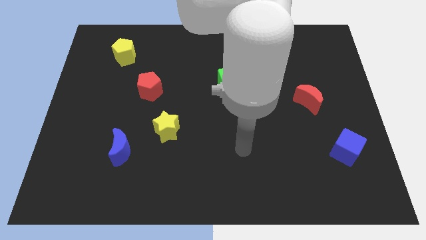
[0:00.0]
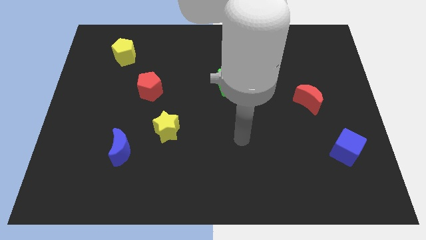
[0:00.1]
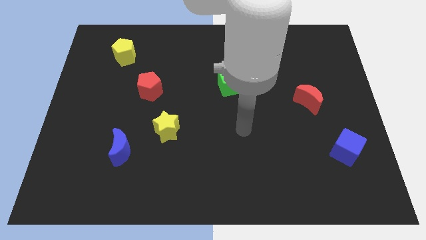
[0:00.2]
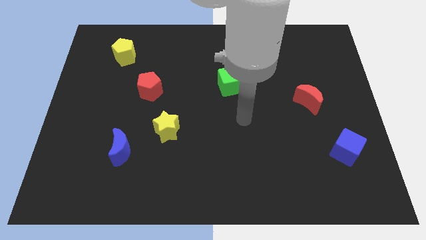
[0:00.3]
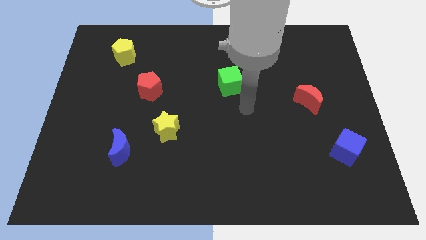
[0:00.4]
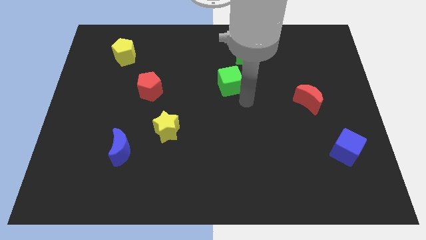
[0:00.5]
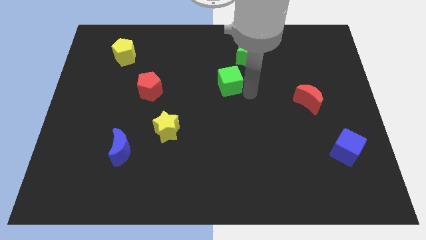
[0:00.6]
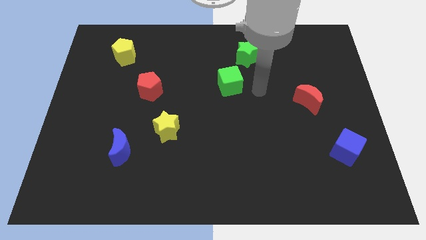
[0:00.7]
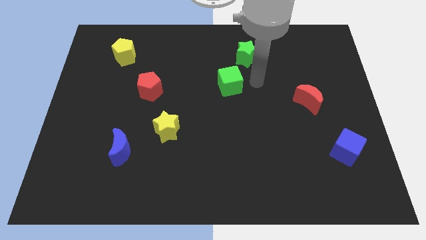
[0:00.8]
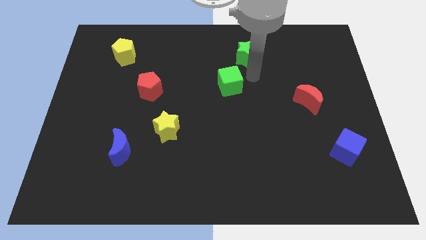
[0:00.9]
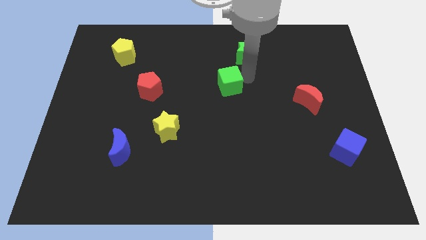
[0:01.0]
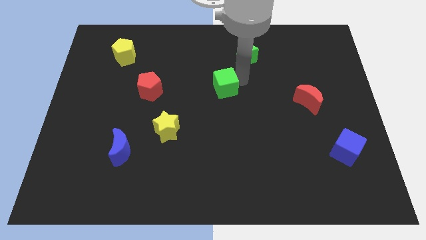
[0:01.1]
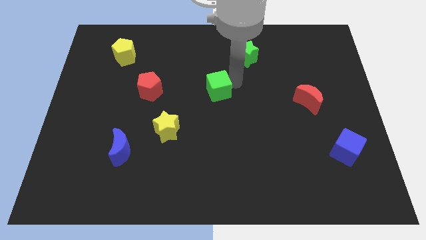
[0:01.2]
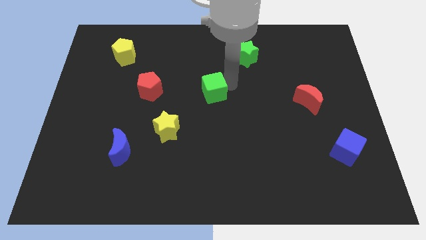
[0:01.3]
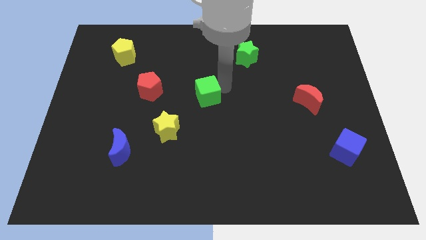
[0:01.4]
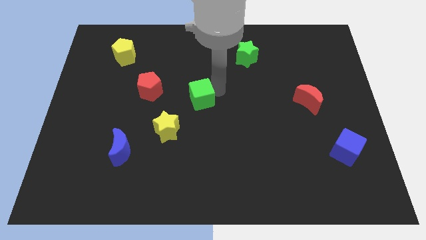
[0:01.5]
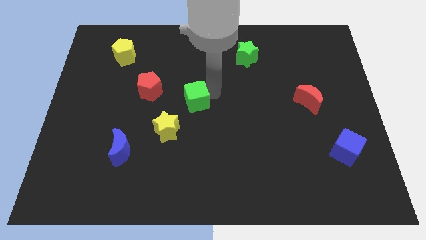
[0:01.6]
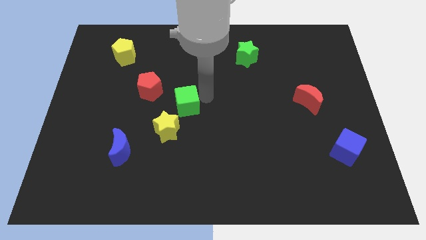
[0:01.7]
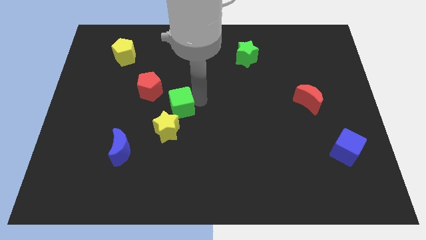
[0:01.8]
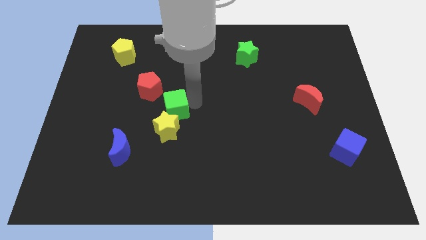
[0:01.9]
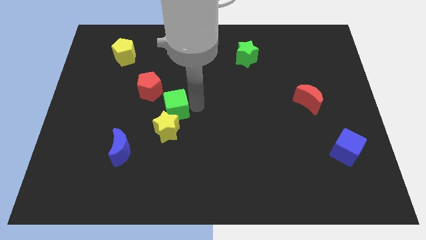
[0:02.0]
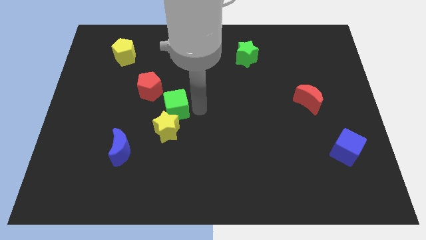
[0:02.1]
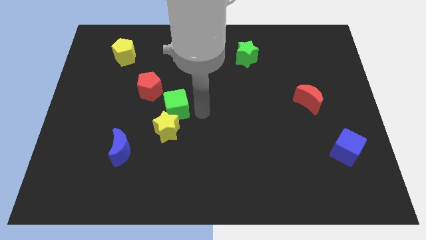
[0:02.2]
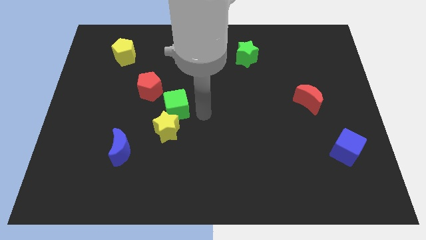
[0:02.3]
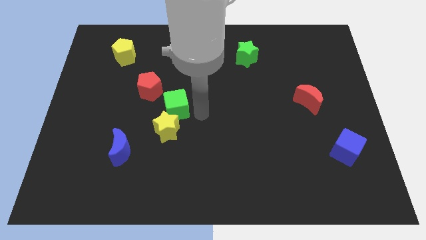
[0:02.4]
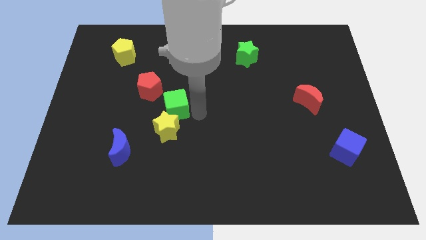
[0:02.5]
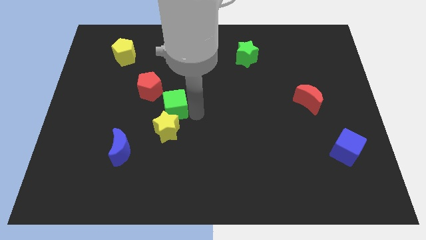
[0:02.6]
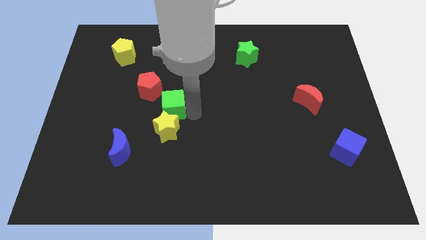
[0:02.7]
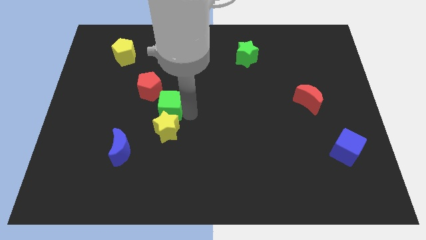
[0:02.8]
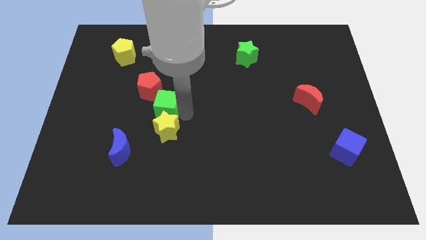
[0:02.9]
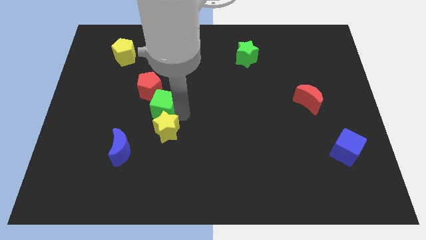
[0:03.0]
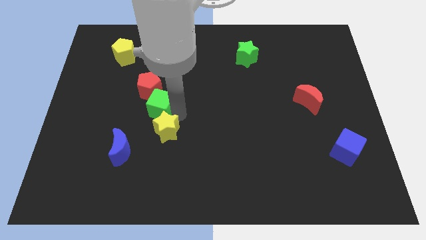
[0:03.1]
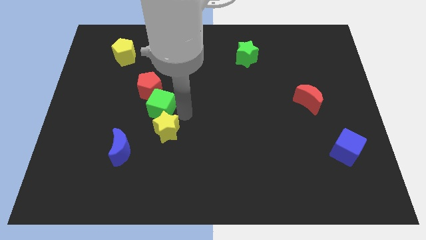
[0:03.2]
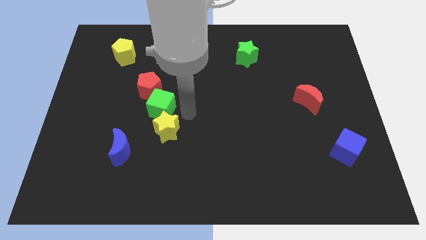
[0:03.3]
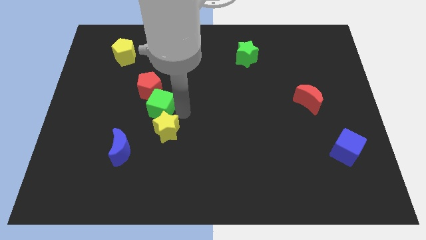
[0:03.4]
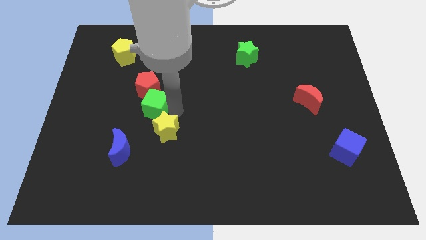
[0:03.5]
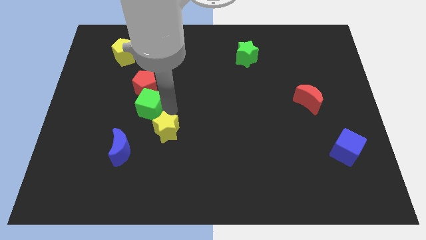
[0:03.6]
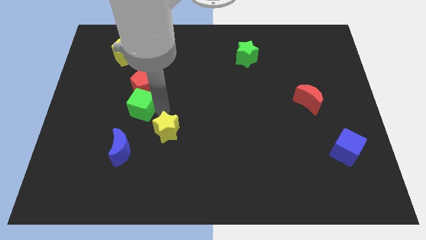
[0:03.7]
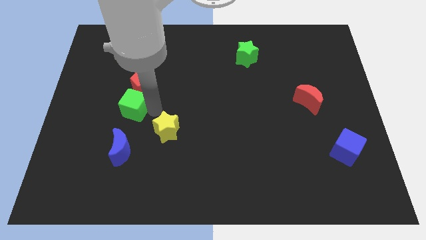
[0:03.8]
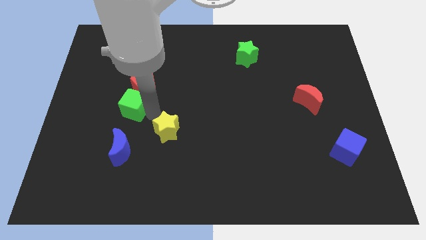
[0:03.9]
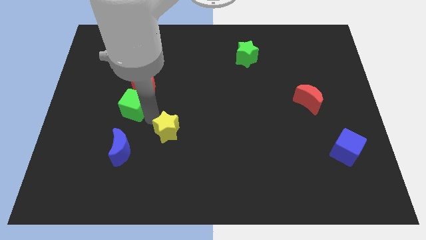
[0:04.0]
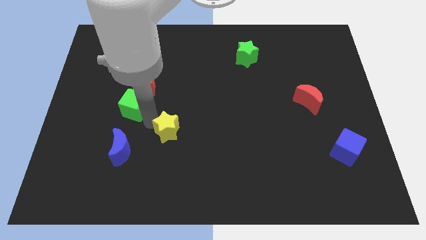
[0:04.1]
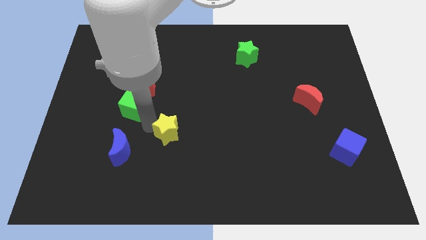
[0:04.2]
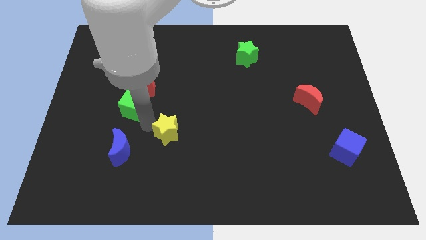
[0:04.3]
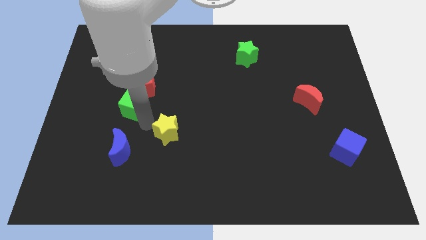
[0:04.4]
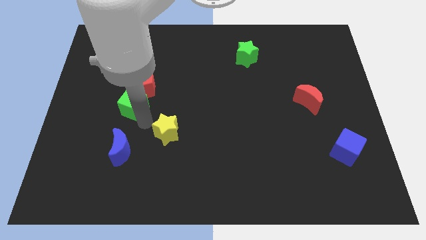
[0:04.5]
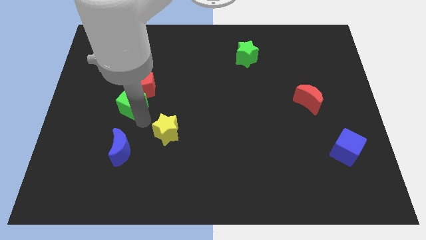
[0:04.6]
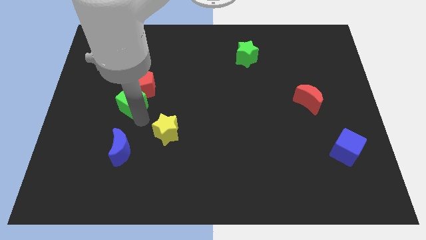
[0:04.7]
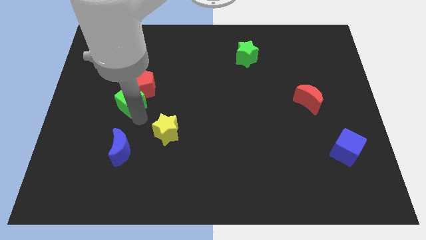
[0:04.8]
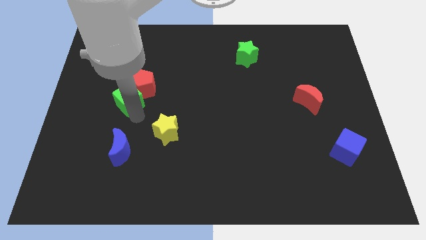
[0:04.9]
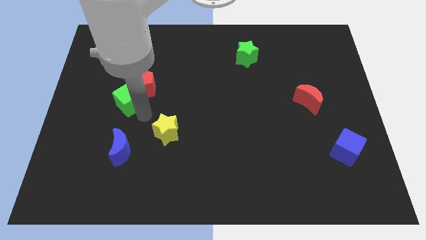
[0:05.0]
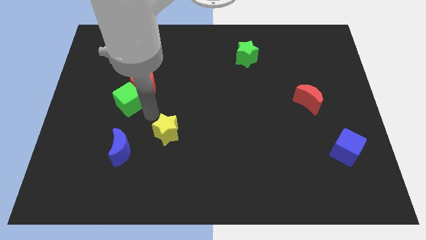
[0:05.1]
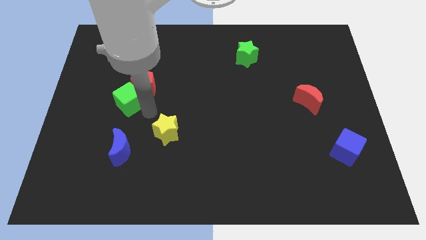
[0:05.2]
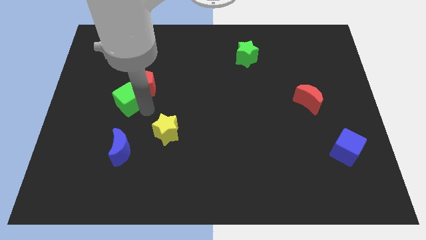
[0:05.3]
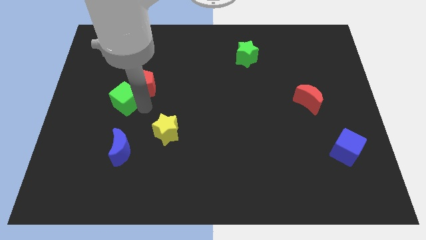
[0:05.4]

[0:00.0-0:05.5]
slide the green cube just left of the red pentagon

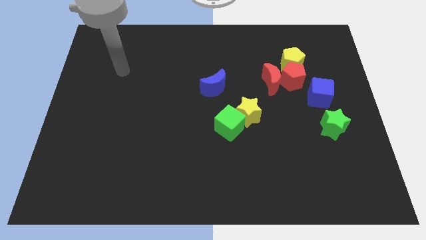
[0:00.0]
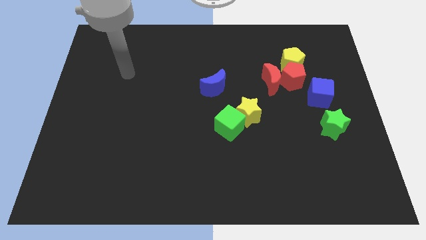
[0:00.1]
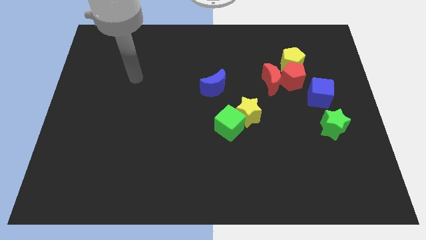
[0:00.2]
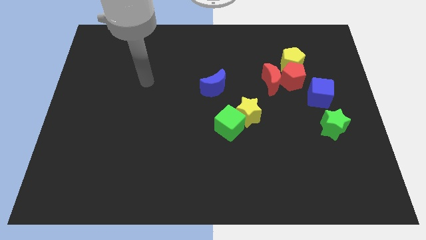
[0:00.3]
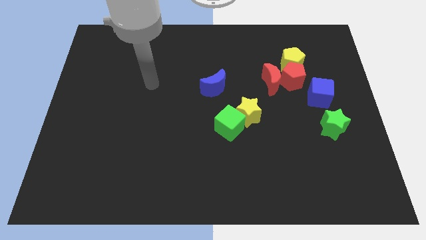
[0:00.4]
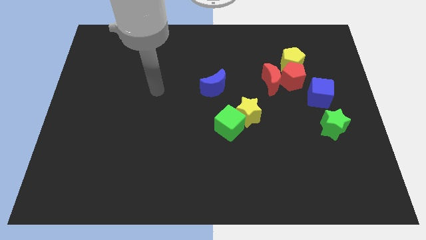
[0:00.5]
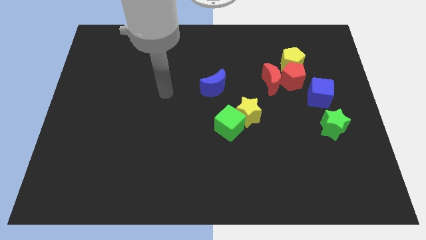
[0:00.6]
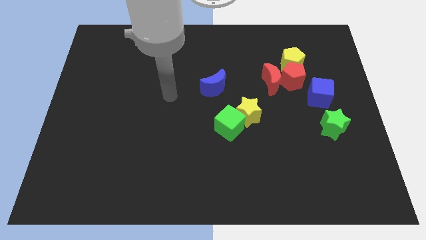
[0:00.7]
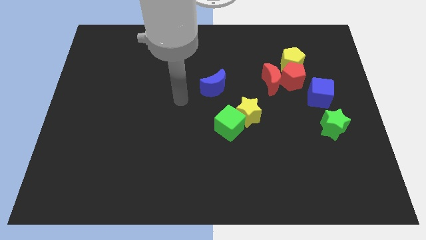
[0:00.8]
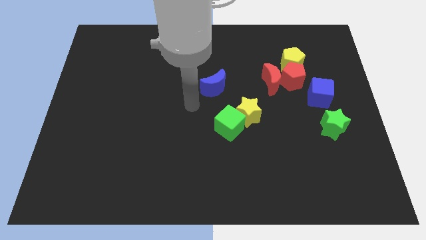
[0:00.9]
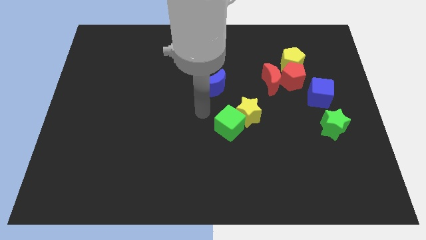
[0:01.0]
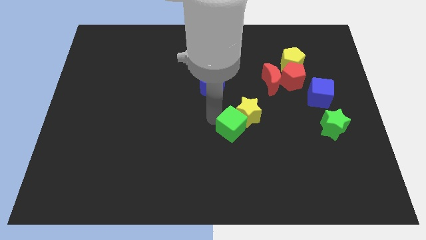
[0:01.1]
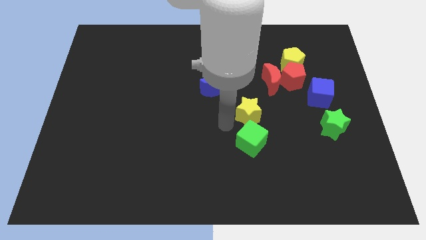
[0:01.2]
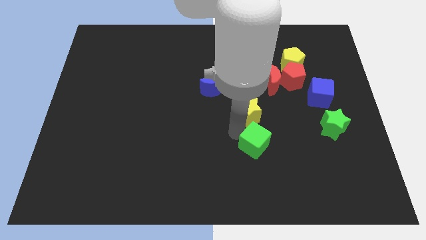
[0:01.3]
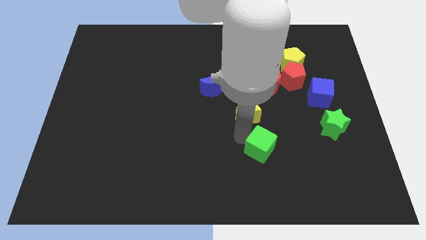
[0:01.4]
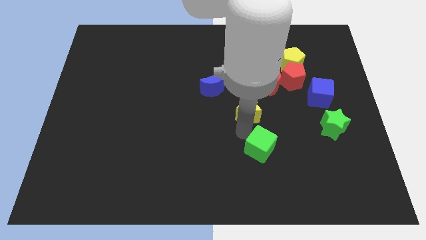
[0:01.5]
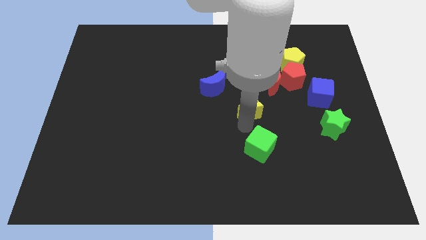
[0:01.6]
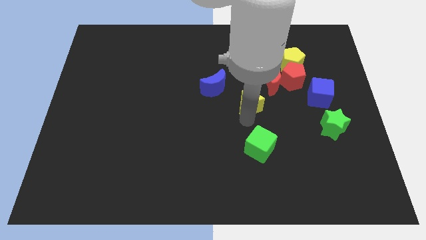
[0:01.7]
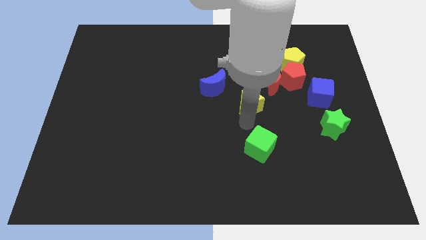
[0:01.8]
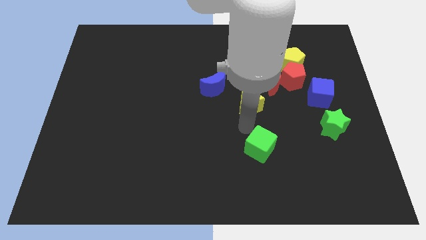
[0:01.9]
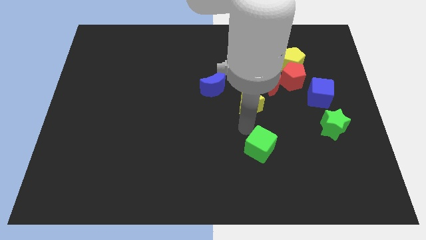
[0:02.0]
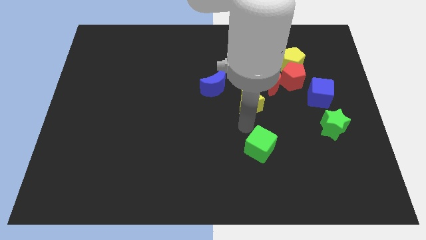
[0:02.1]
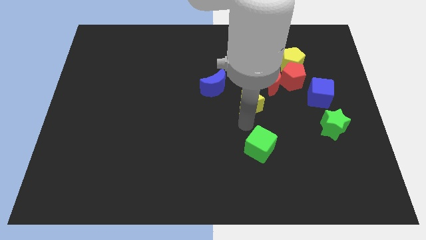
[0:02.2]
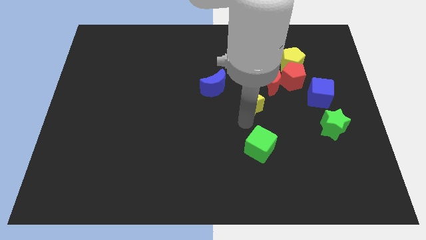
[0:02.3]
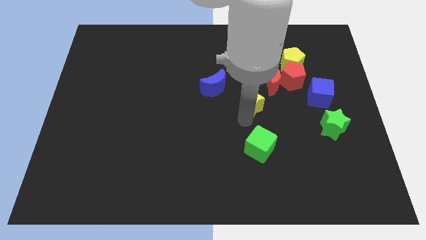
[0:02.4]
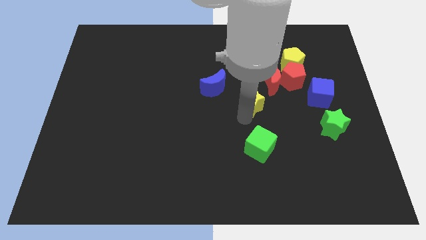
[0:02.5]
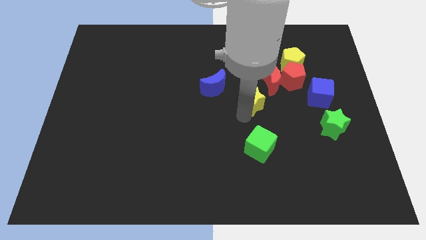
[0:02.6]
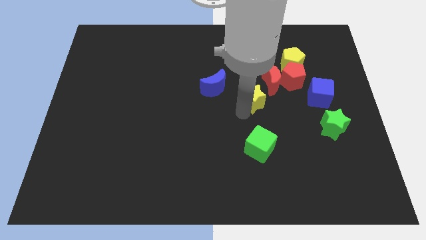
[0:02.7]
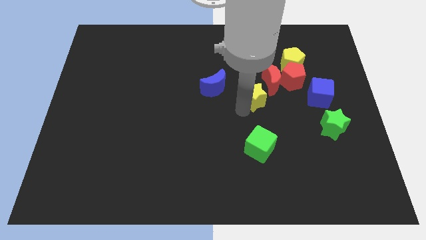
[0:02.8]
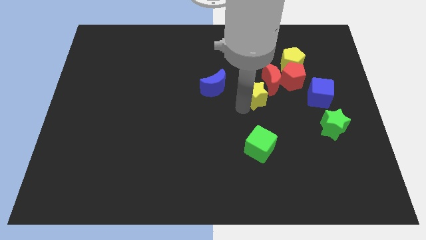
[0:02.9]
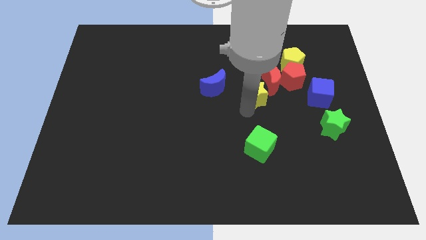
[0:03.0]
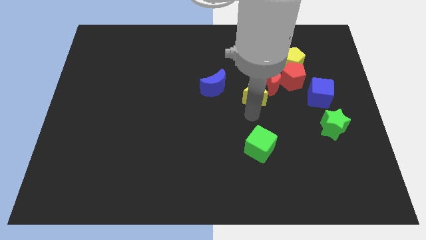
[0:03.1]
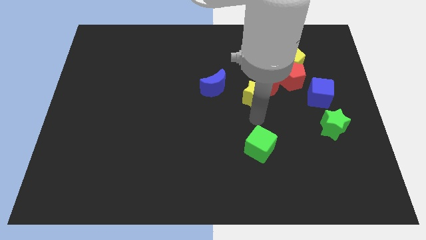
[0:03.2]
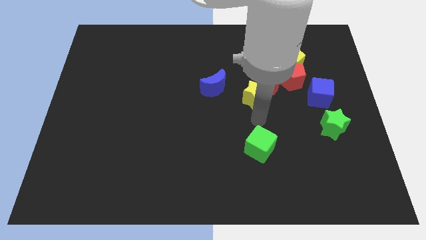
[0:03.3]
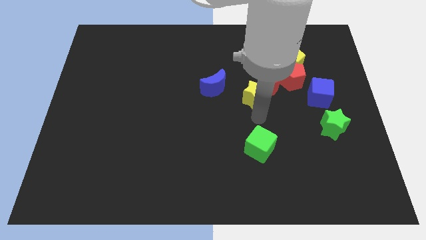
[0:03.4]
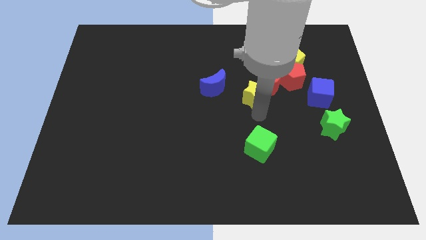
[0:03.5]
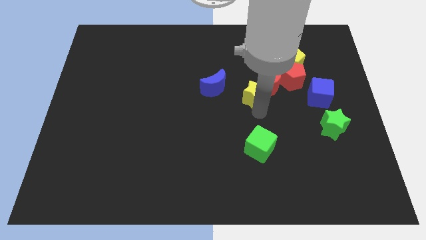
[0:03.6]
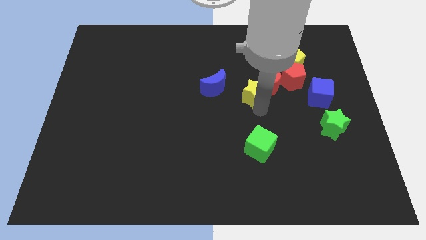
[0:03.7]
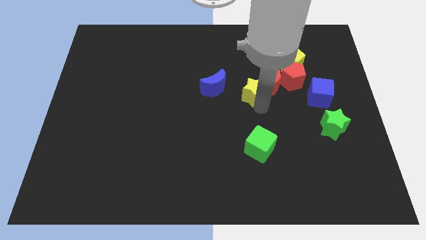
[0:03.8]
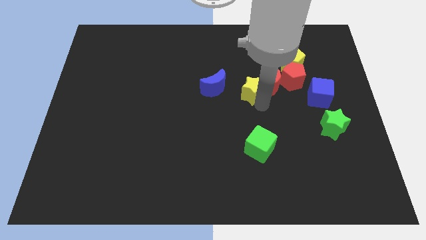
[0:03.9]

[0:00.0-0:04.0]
slide the yellow star just left of the red pentagon
